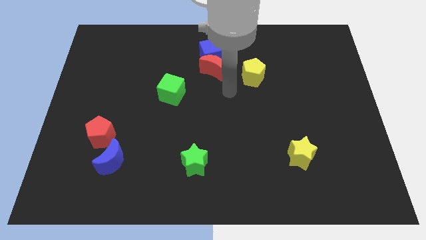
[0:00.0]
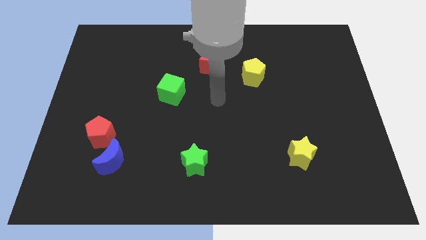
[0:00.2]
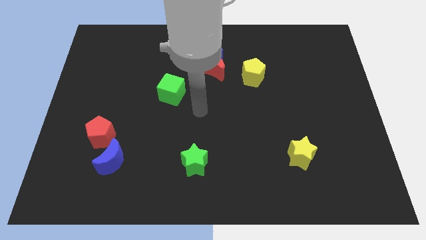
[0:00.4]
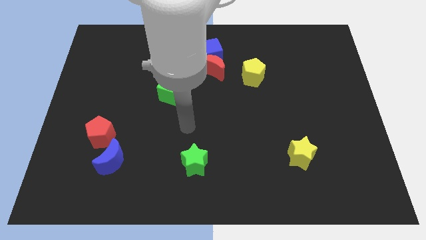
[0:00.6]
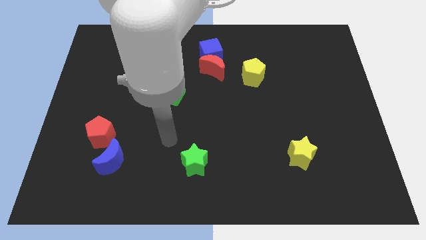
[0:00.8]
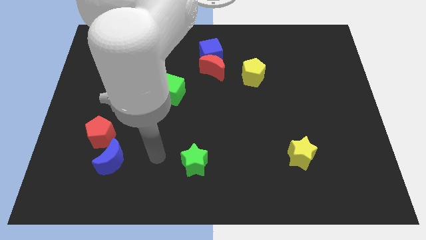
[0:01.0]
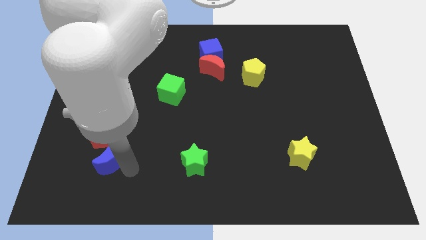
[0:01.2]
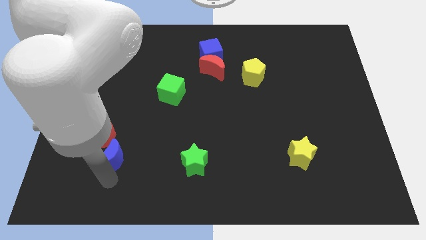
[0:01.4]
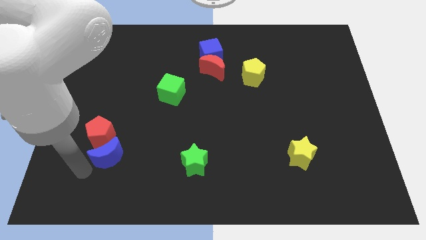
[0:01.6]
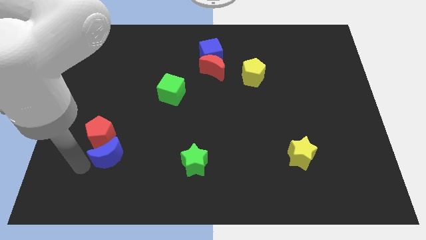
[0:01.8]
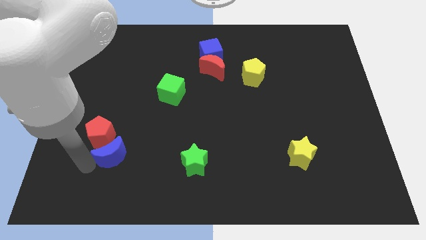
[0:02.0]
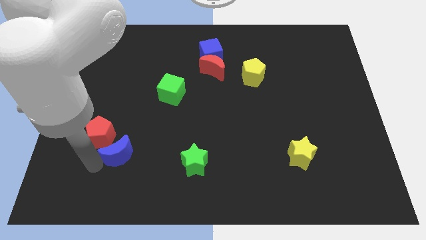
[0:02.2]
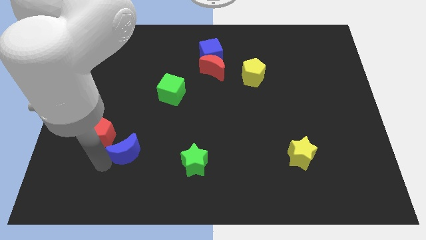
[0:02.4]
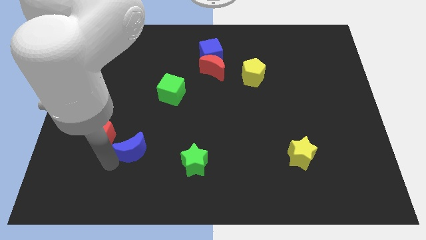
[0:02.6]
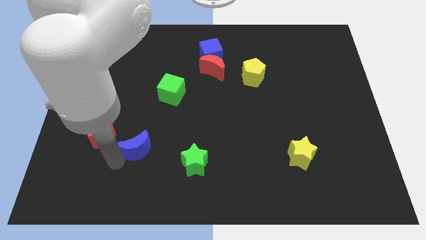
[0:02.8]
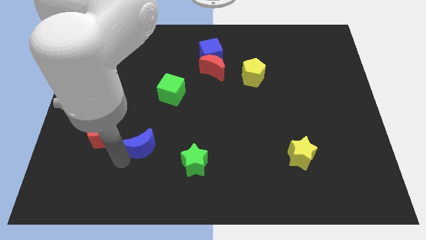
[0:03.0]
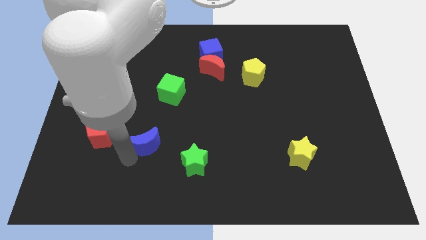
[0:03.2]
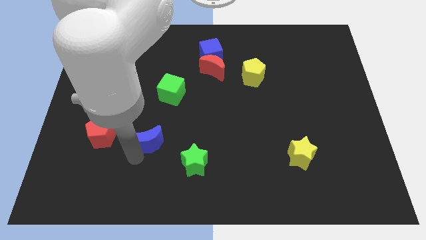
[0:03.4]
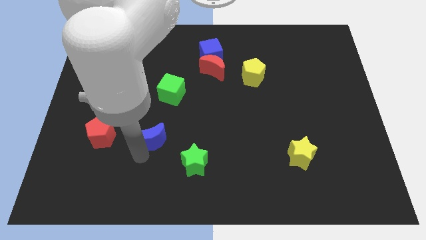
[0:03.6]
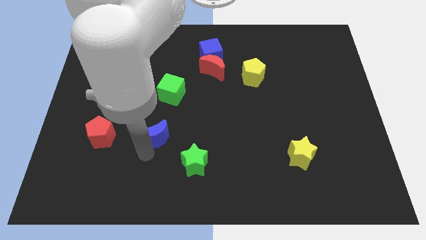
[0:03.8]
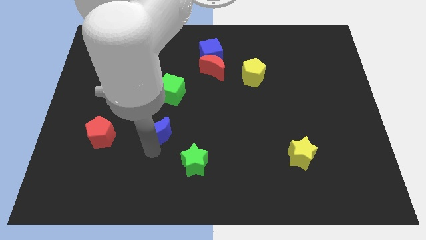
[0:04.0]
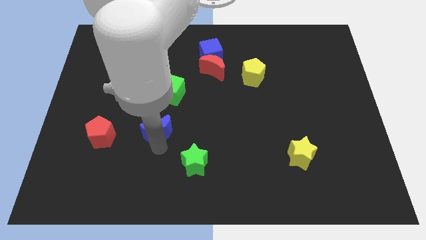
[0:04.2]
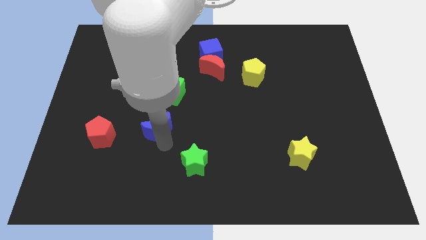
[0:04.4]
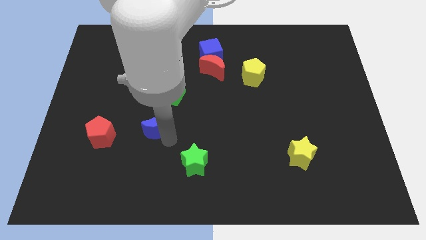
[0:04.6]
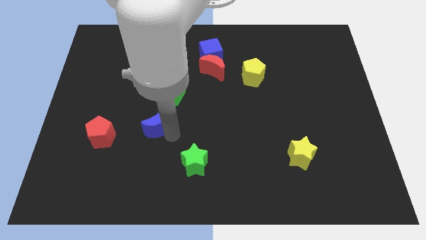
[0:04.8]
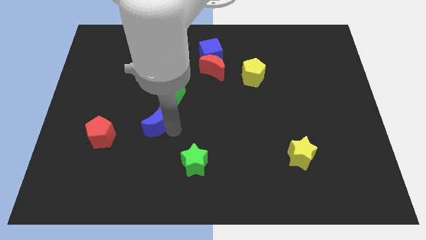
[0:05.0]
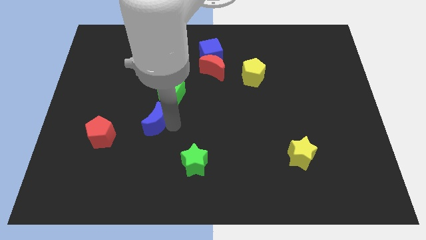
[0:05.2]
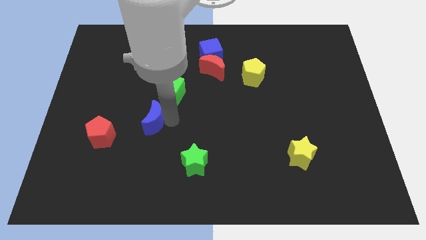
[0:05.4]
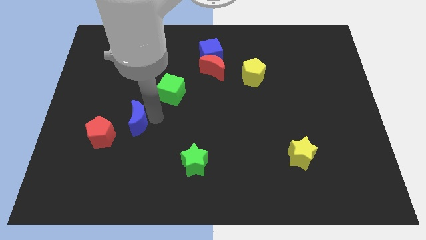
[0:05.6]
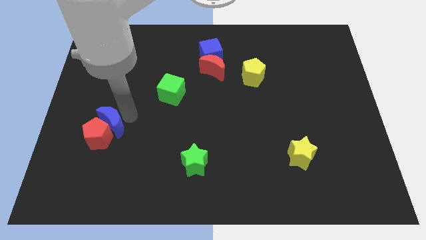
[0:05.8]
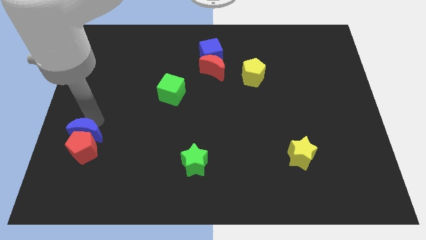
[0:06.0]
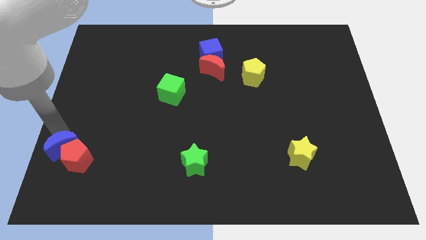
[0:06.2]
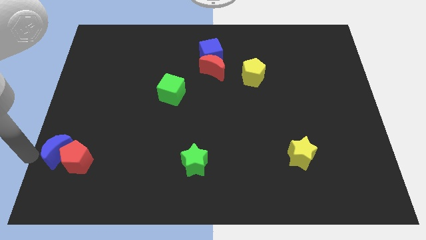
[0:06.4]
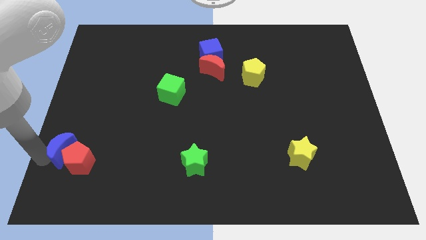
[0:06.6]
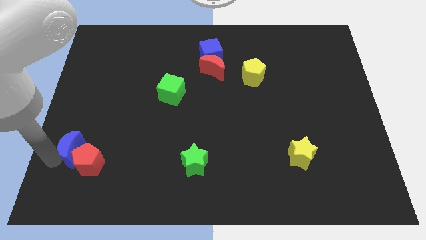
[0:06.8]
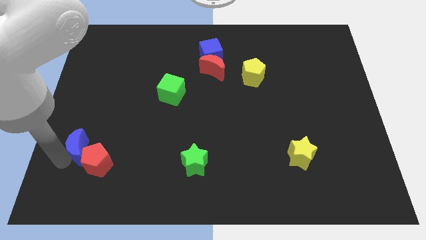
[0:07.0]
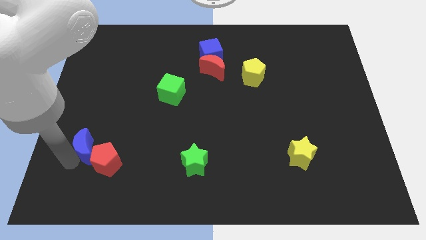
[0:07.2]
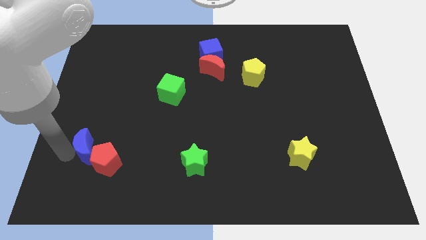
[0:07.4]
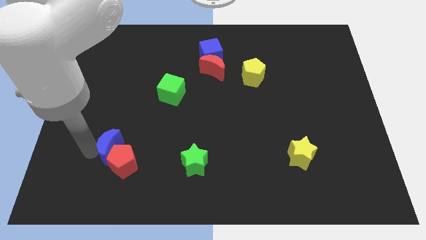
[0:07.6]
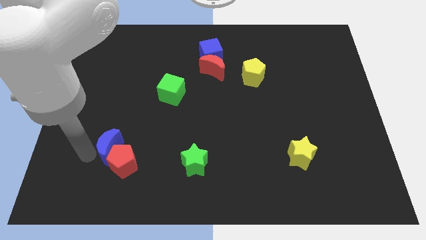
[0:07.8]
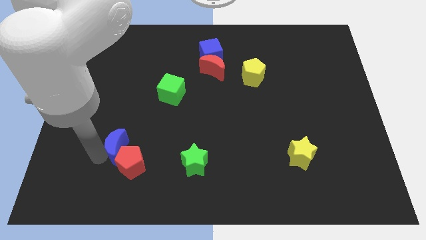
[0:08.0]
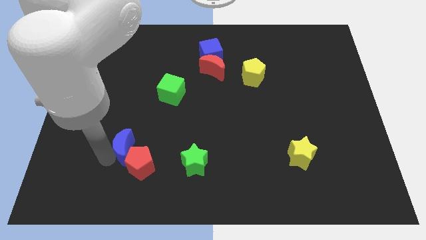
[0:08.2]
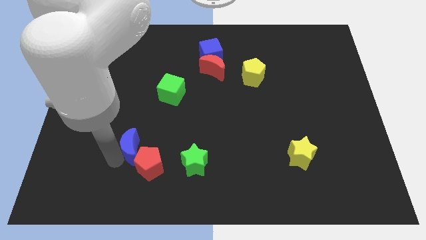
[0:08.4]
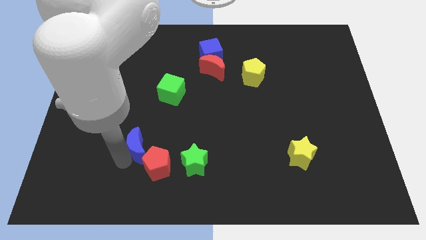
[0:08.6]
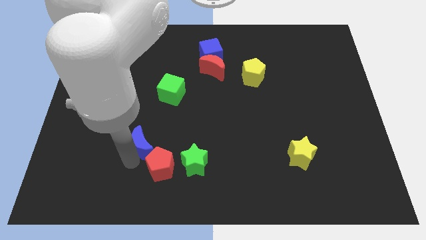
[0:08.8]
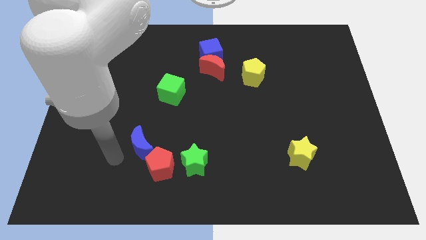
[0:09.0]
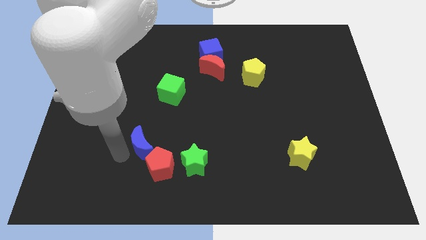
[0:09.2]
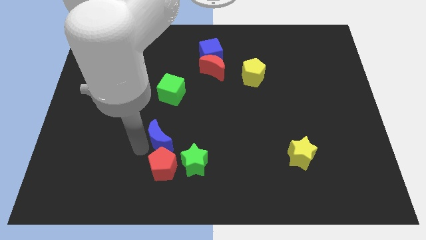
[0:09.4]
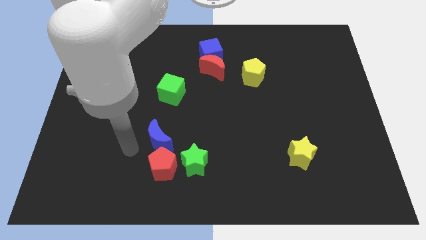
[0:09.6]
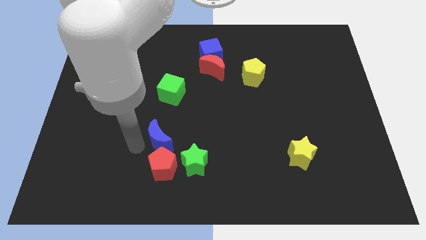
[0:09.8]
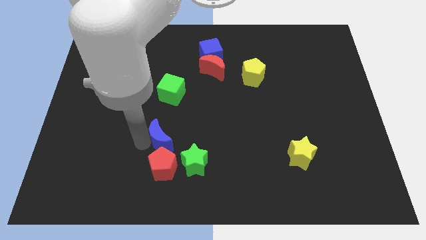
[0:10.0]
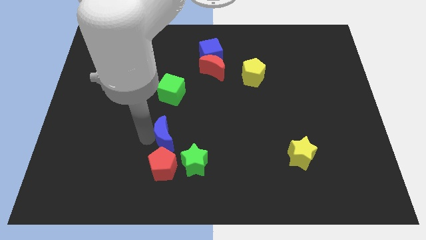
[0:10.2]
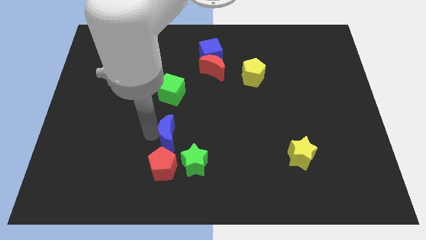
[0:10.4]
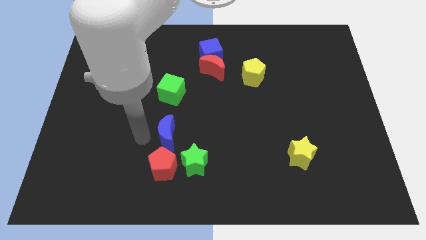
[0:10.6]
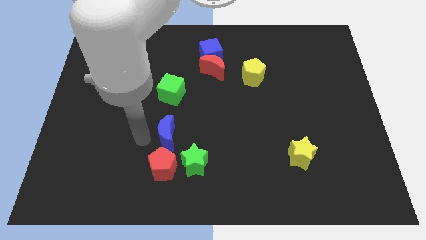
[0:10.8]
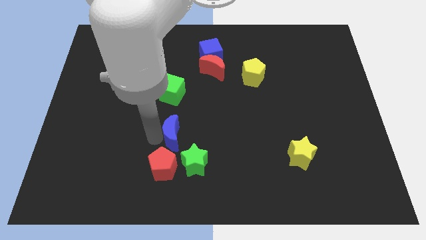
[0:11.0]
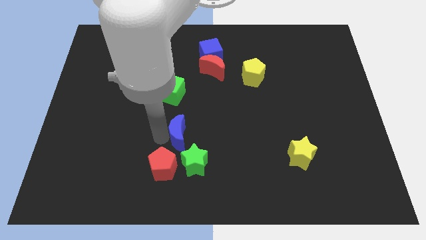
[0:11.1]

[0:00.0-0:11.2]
move the blue moon to the center of the board
